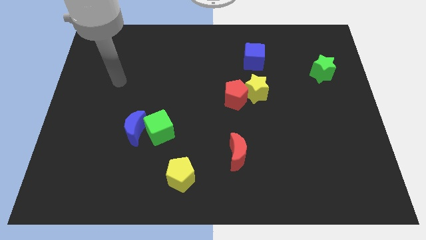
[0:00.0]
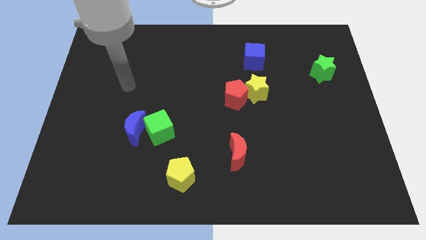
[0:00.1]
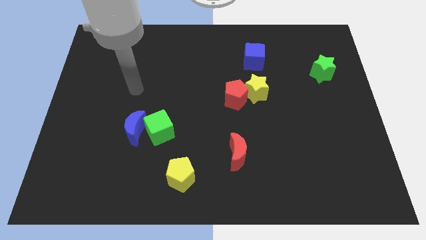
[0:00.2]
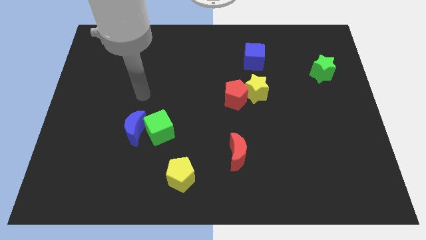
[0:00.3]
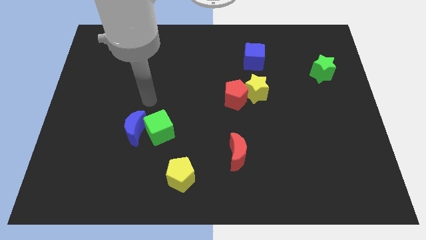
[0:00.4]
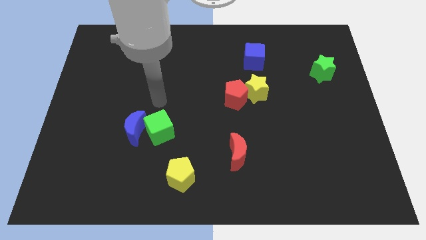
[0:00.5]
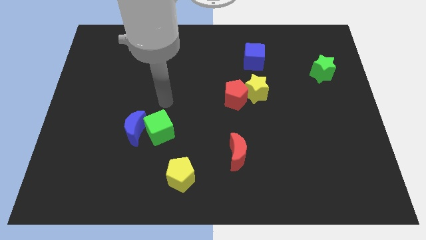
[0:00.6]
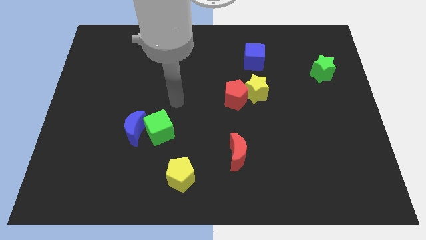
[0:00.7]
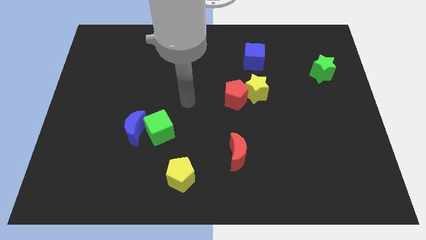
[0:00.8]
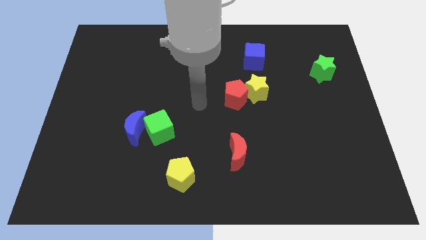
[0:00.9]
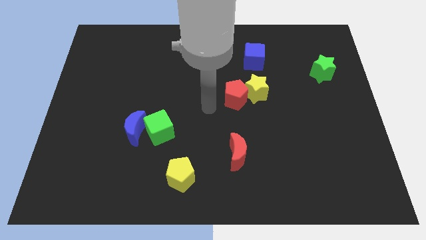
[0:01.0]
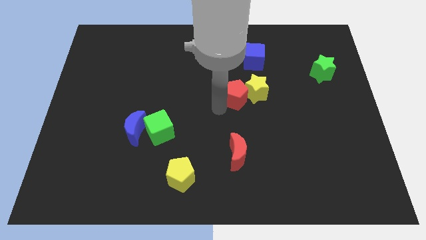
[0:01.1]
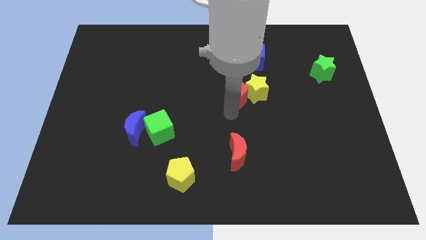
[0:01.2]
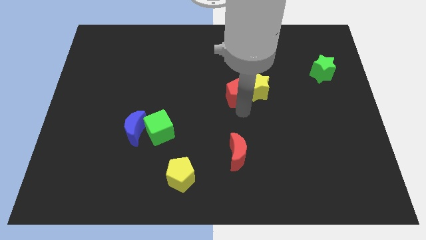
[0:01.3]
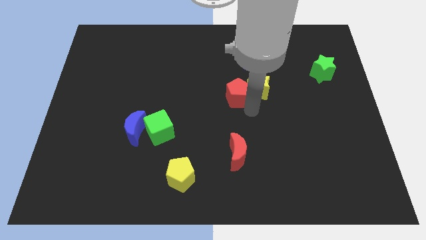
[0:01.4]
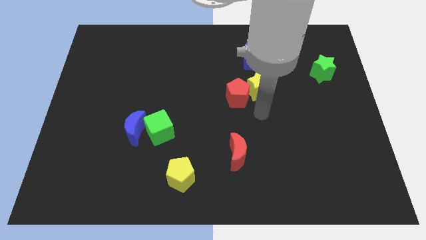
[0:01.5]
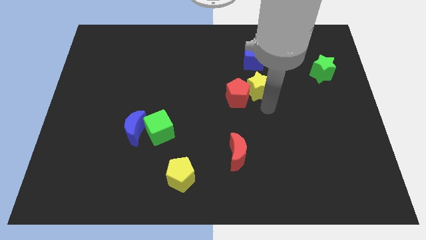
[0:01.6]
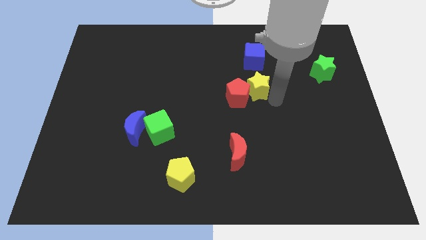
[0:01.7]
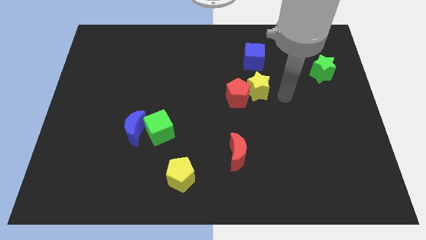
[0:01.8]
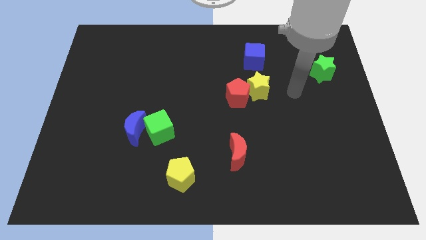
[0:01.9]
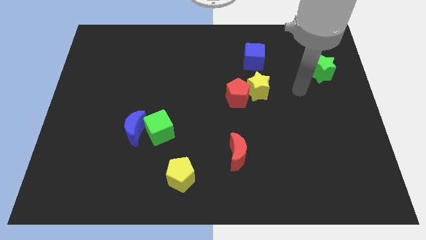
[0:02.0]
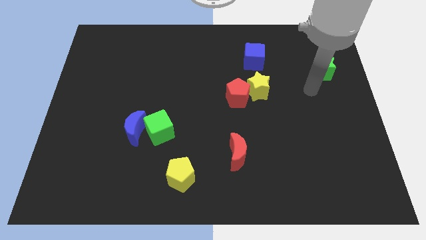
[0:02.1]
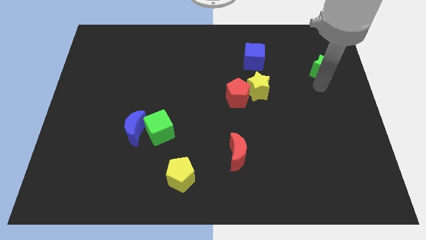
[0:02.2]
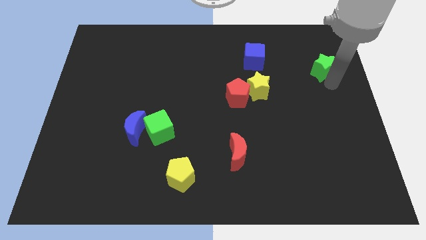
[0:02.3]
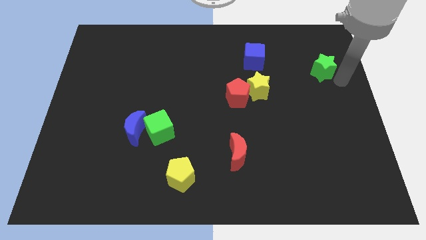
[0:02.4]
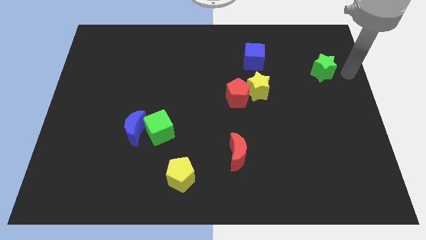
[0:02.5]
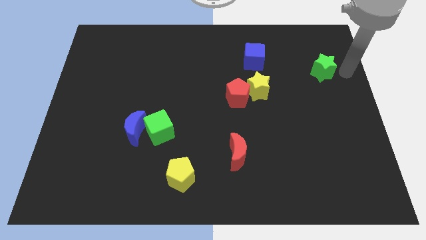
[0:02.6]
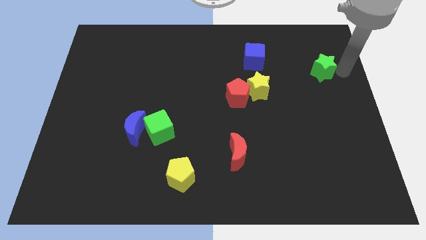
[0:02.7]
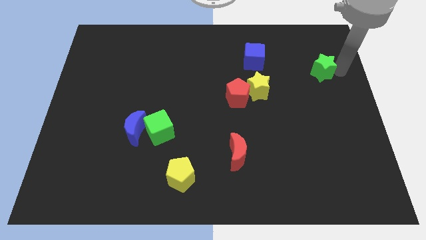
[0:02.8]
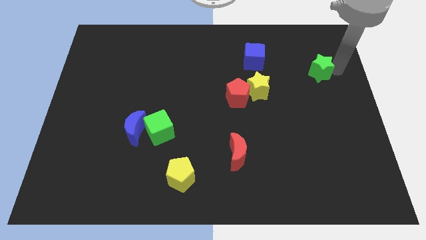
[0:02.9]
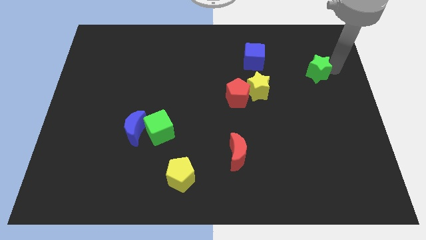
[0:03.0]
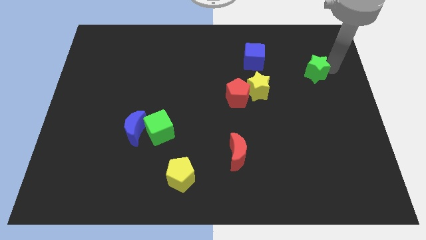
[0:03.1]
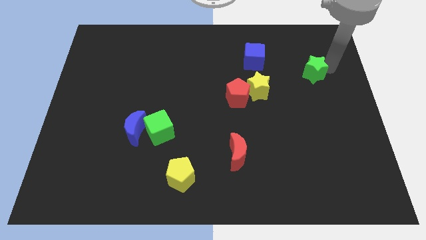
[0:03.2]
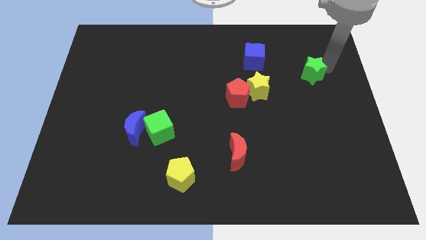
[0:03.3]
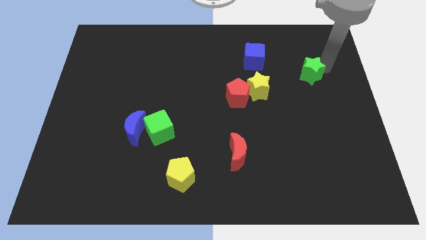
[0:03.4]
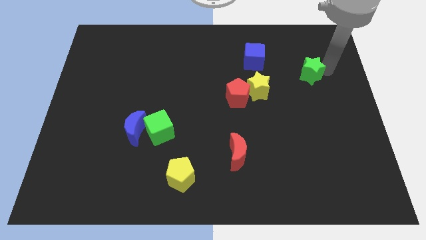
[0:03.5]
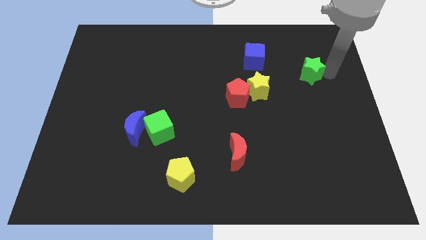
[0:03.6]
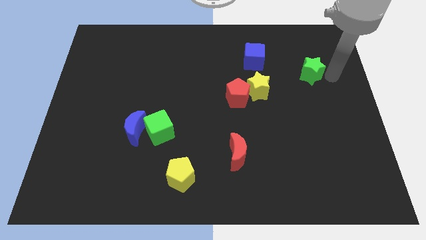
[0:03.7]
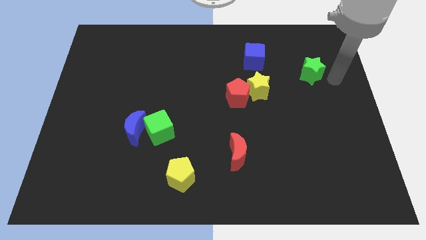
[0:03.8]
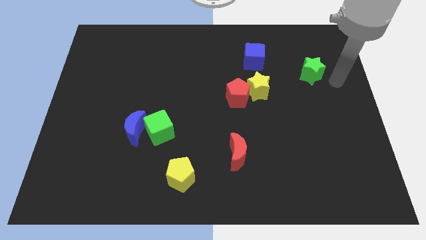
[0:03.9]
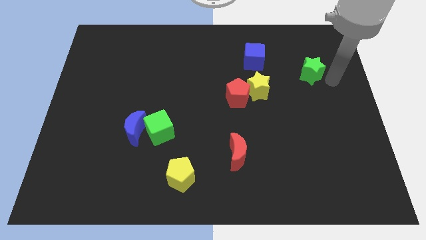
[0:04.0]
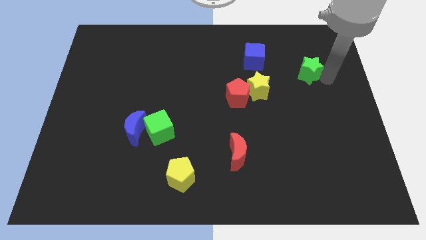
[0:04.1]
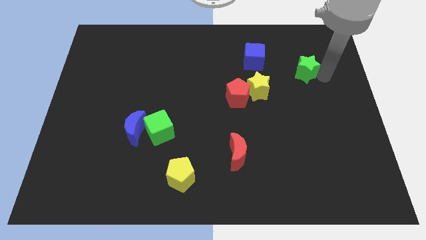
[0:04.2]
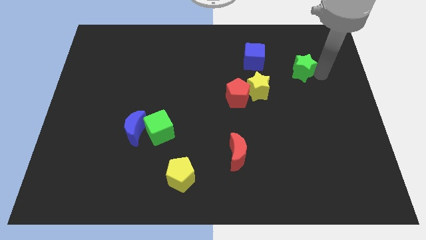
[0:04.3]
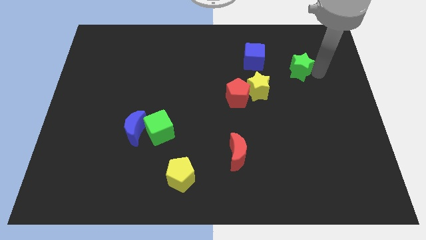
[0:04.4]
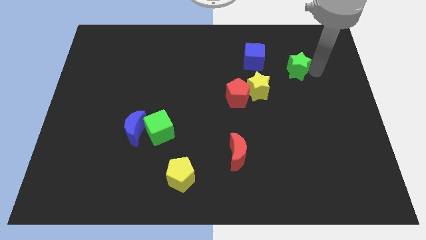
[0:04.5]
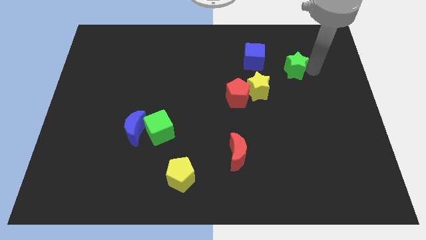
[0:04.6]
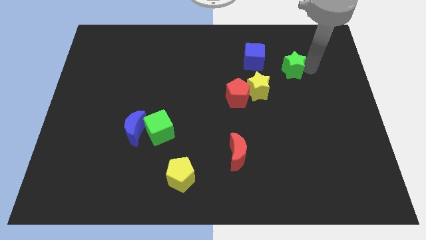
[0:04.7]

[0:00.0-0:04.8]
slide the green star to the bottom right side of the blue cube

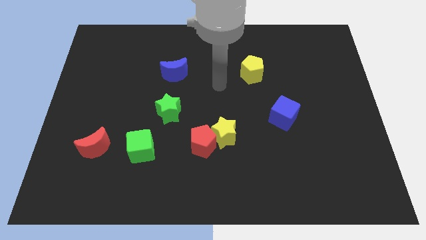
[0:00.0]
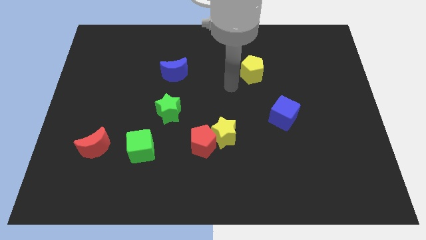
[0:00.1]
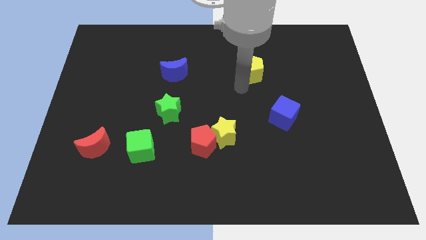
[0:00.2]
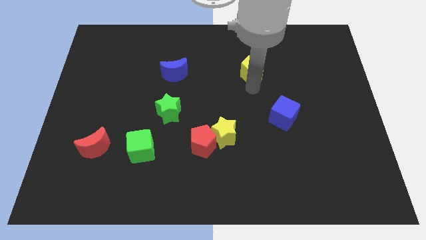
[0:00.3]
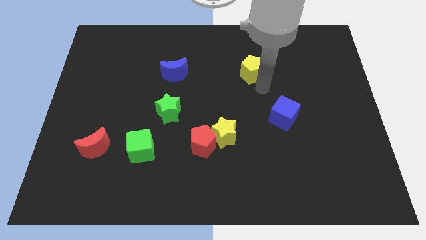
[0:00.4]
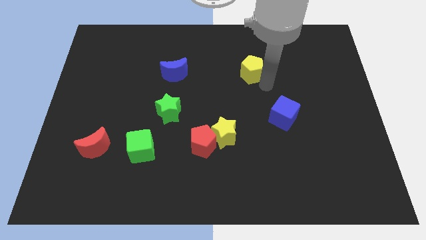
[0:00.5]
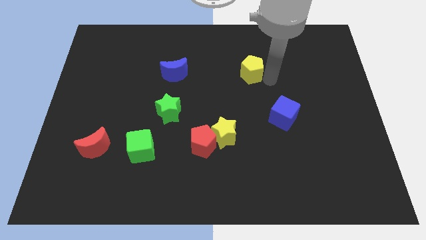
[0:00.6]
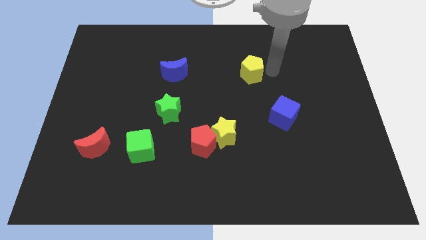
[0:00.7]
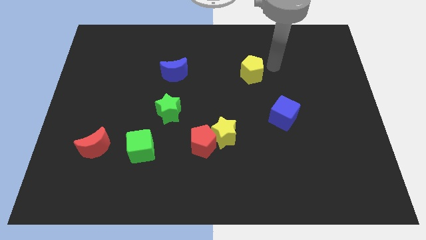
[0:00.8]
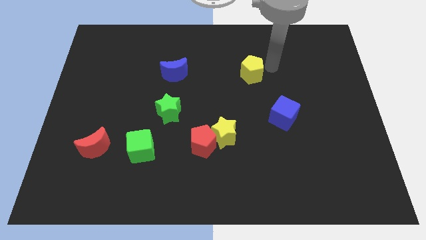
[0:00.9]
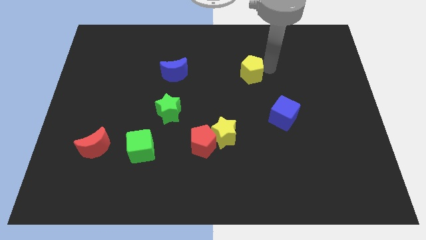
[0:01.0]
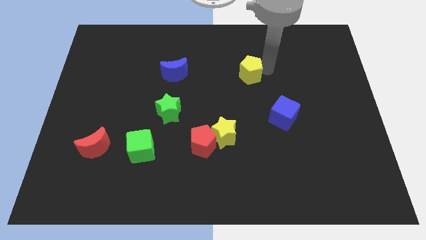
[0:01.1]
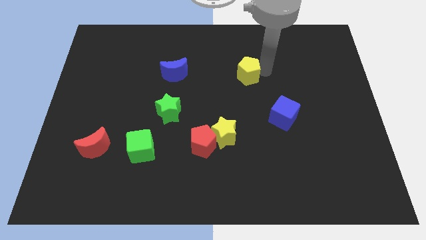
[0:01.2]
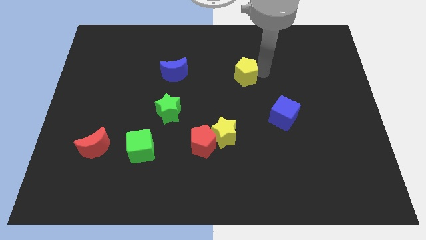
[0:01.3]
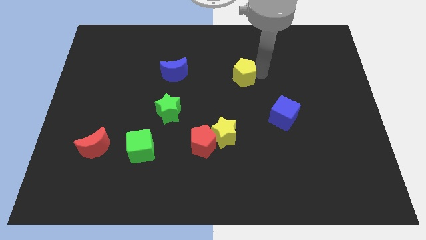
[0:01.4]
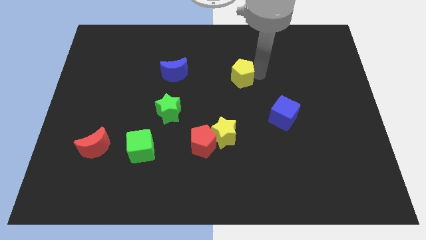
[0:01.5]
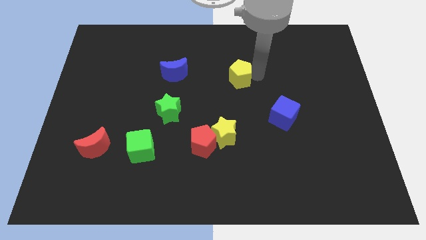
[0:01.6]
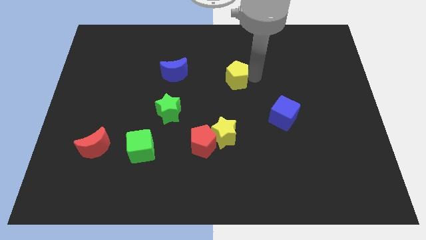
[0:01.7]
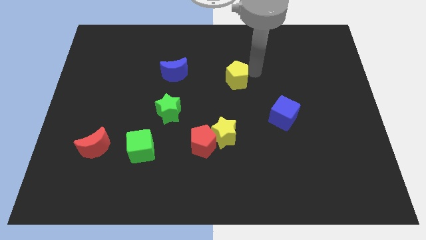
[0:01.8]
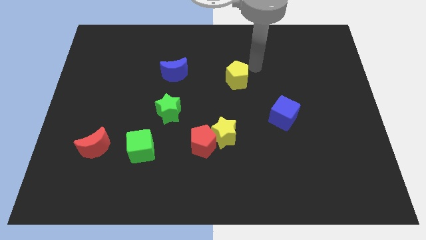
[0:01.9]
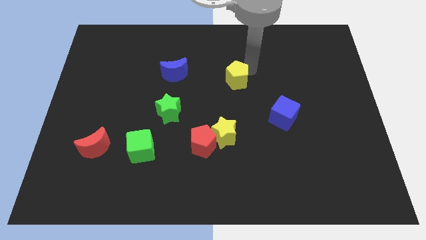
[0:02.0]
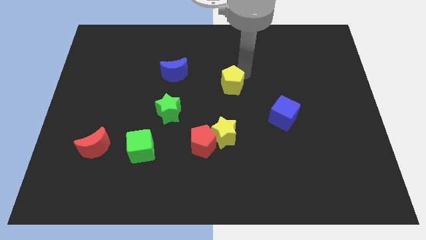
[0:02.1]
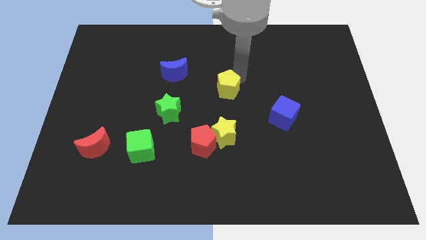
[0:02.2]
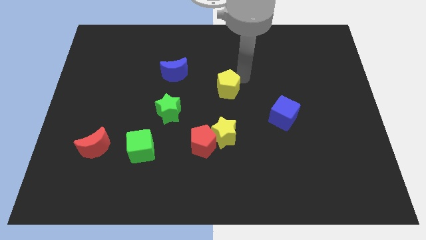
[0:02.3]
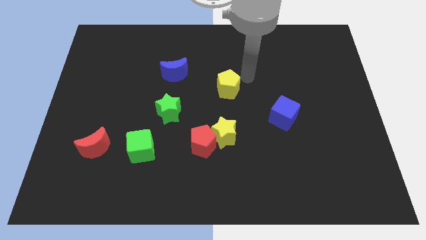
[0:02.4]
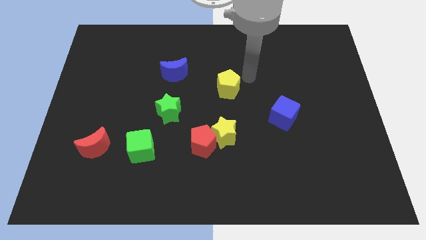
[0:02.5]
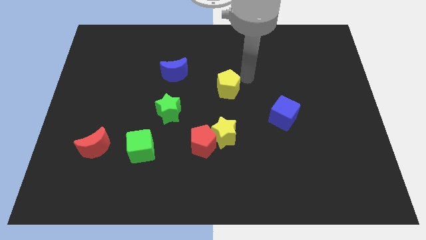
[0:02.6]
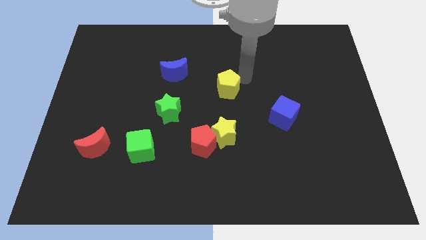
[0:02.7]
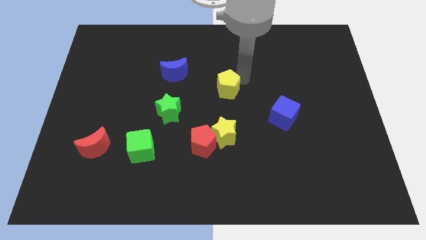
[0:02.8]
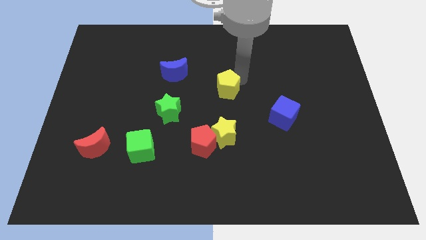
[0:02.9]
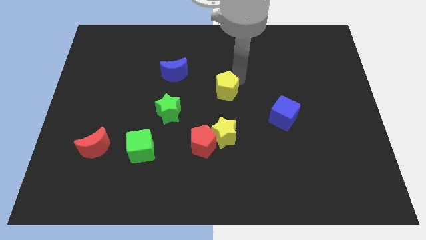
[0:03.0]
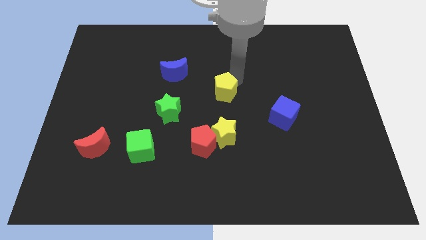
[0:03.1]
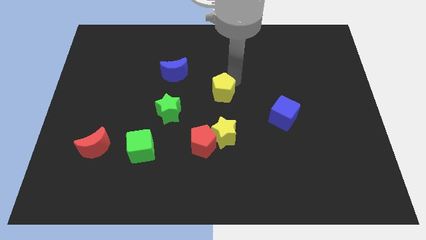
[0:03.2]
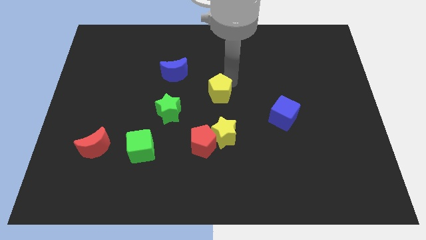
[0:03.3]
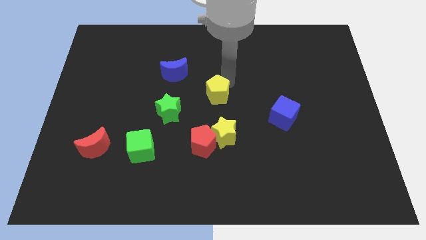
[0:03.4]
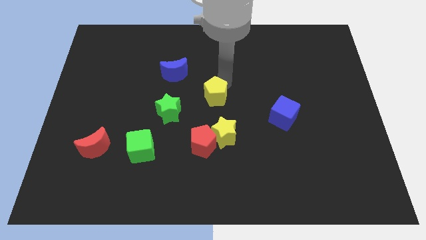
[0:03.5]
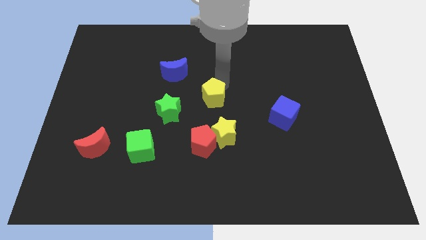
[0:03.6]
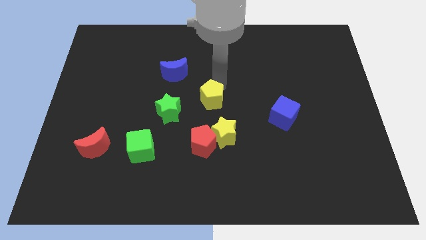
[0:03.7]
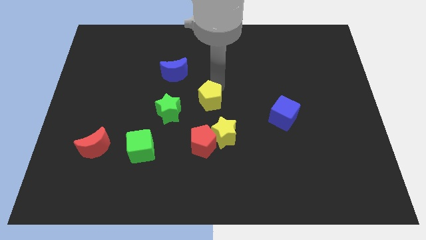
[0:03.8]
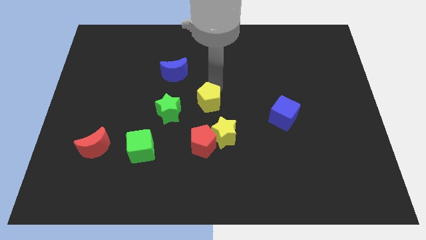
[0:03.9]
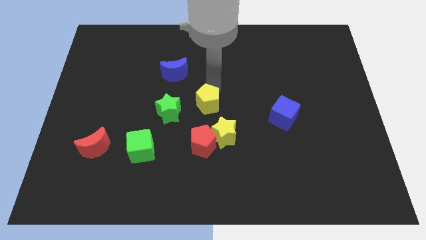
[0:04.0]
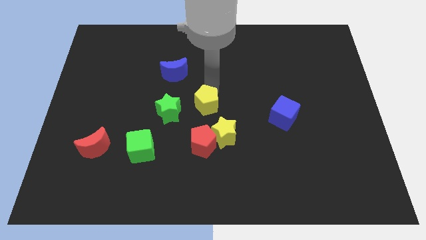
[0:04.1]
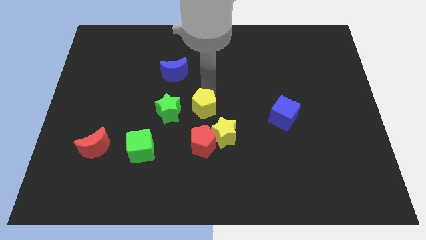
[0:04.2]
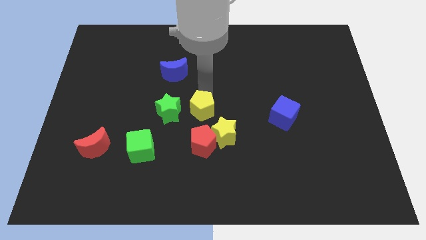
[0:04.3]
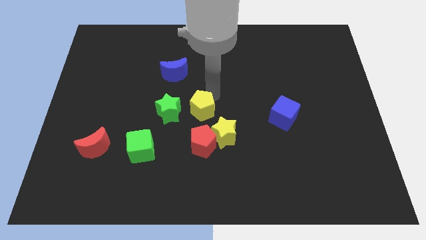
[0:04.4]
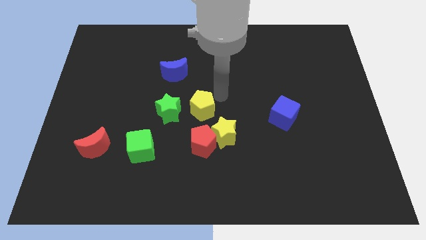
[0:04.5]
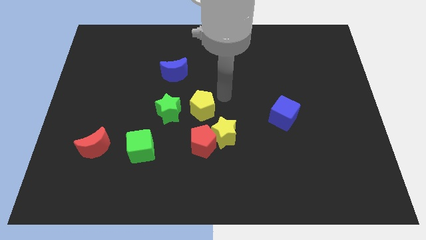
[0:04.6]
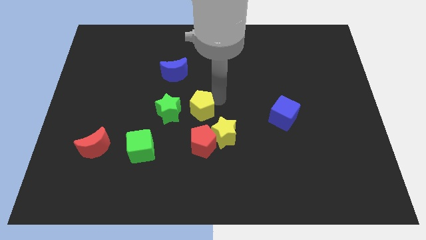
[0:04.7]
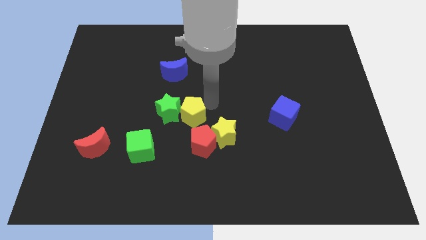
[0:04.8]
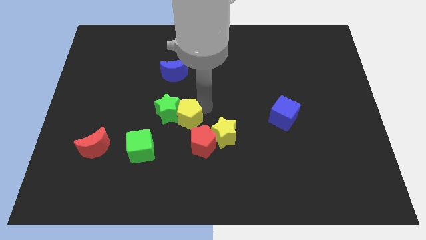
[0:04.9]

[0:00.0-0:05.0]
move the yellow pentagon to the top right side of the green cube
